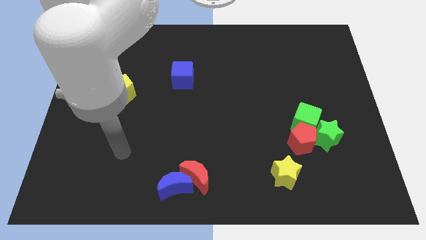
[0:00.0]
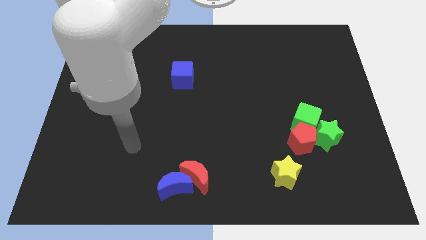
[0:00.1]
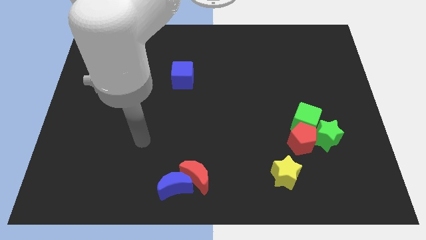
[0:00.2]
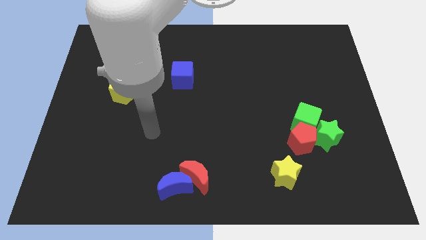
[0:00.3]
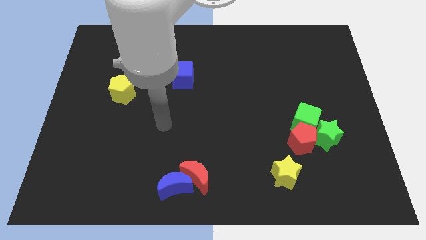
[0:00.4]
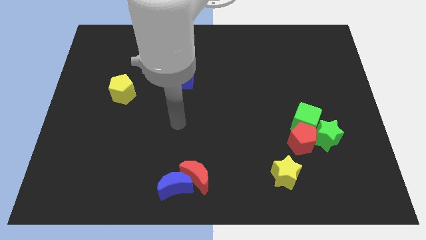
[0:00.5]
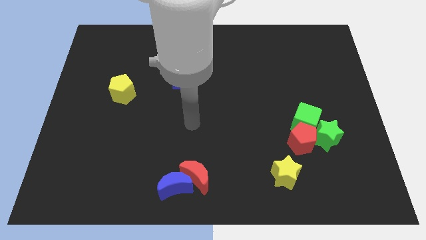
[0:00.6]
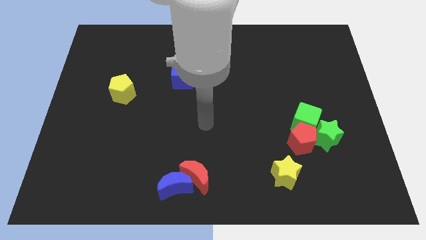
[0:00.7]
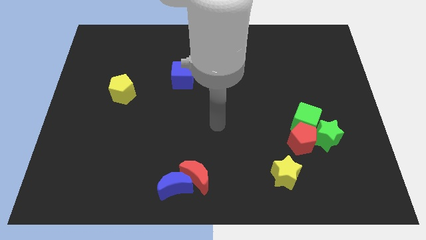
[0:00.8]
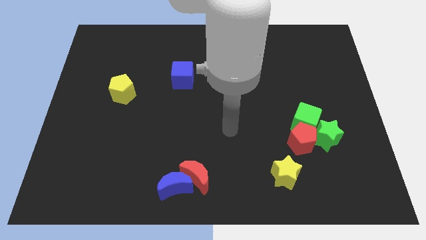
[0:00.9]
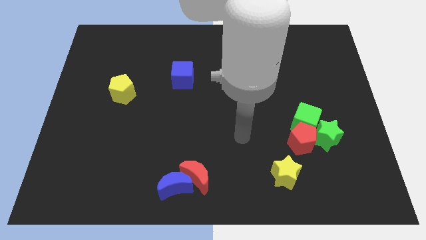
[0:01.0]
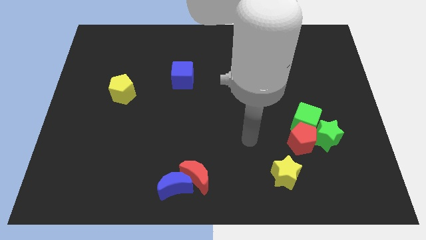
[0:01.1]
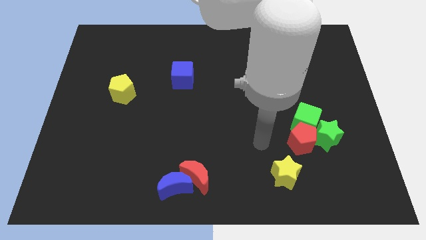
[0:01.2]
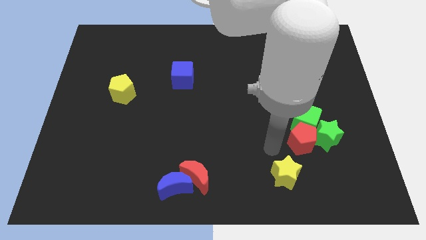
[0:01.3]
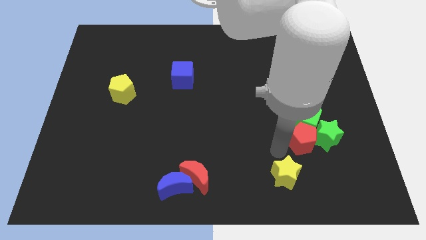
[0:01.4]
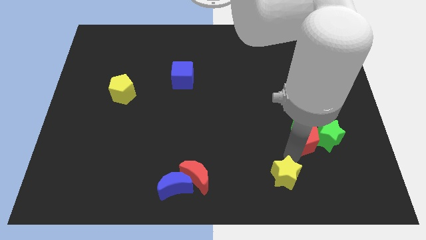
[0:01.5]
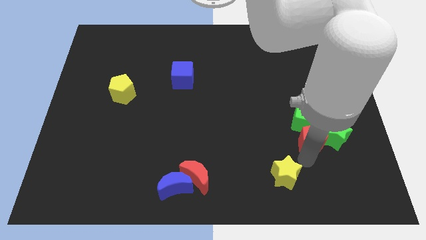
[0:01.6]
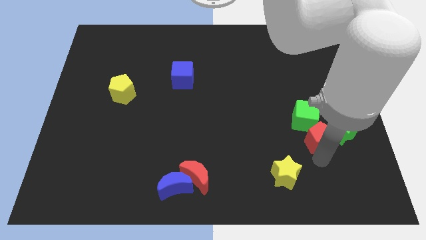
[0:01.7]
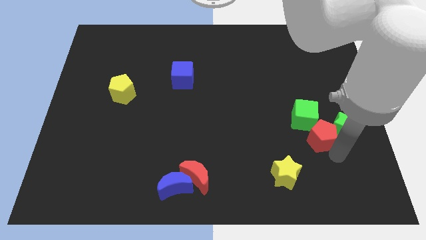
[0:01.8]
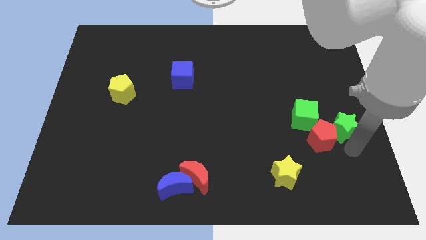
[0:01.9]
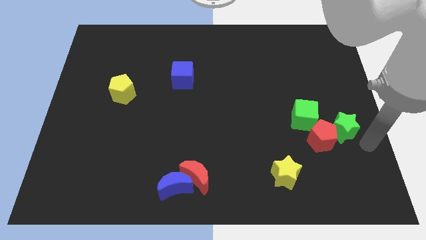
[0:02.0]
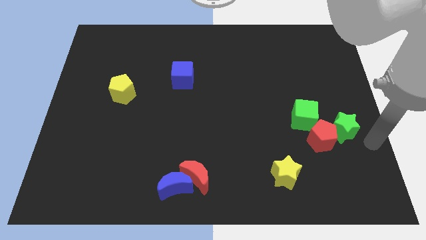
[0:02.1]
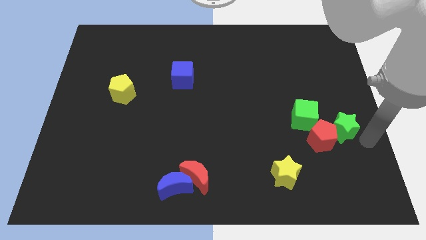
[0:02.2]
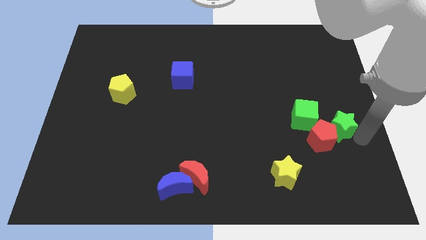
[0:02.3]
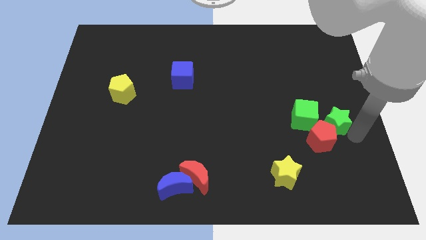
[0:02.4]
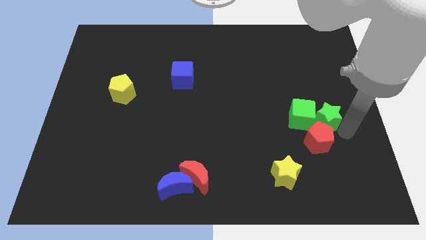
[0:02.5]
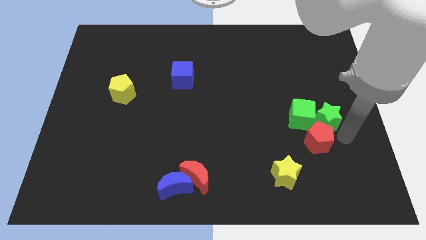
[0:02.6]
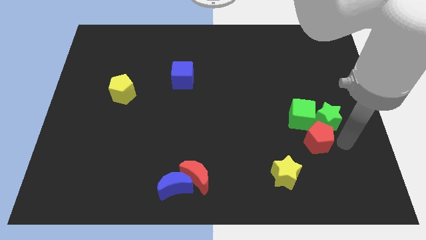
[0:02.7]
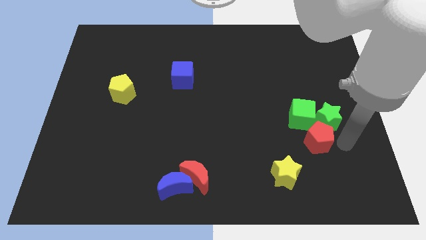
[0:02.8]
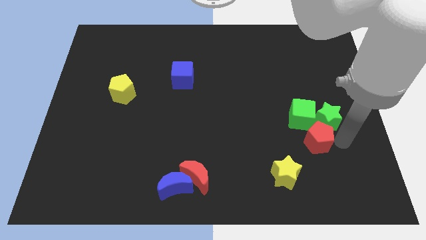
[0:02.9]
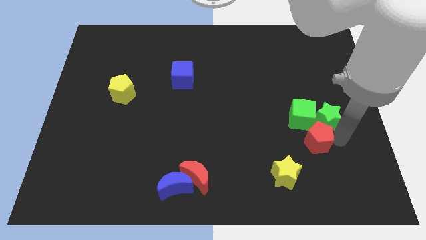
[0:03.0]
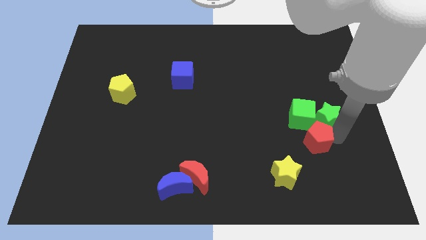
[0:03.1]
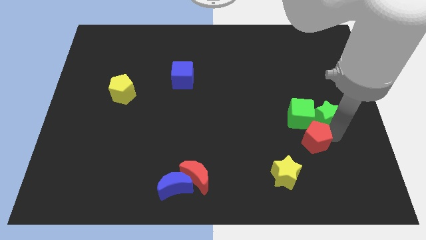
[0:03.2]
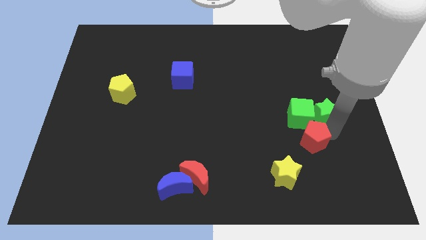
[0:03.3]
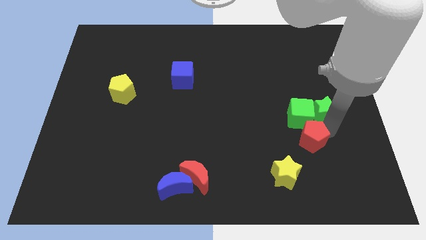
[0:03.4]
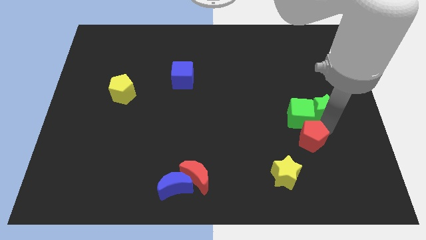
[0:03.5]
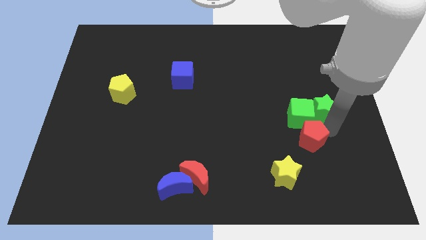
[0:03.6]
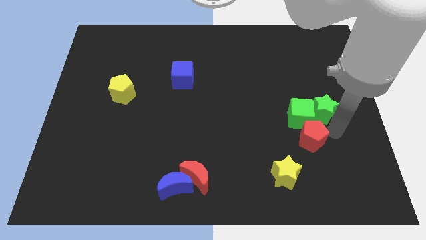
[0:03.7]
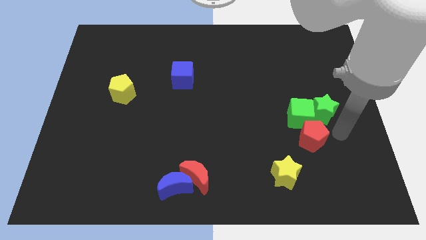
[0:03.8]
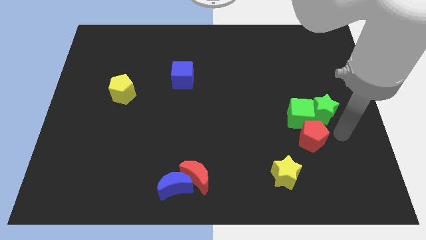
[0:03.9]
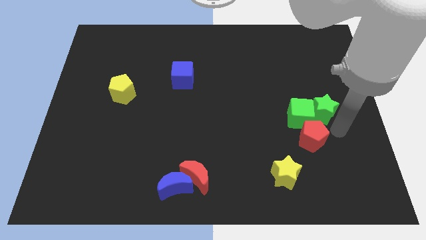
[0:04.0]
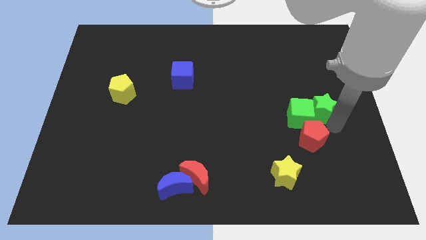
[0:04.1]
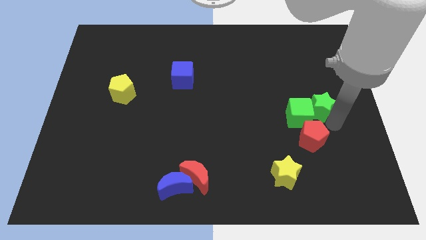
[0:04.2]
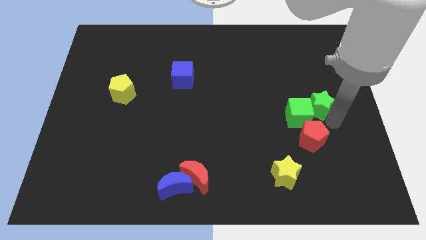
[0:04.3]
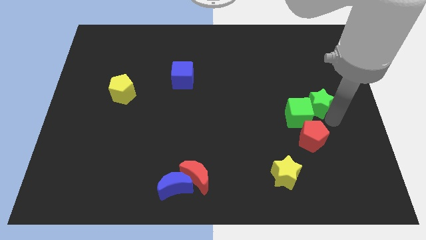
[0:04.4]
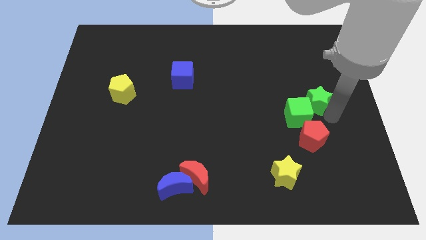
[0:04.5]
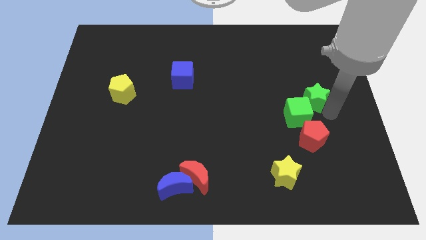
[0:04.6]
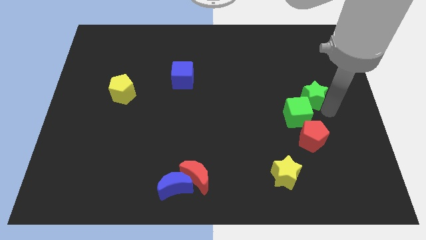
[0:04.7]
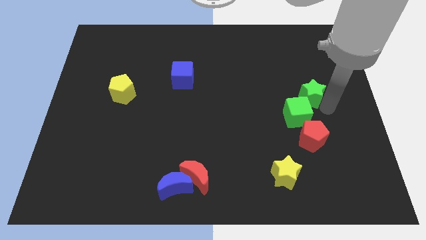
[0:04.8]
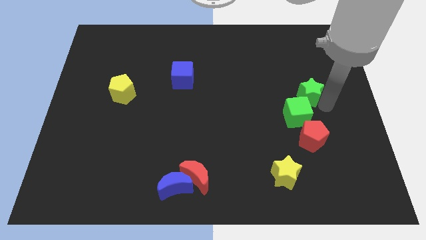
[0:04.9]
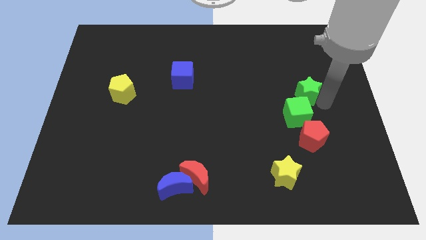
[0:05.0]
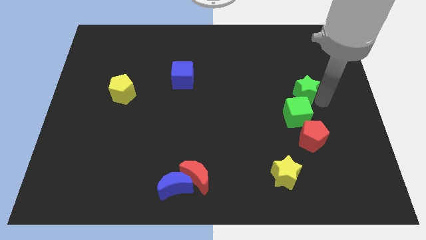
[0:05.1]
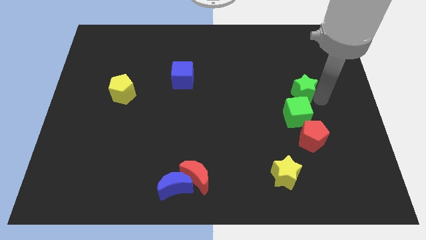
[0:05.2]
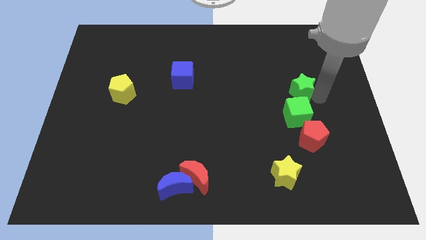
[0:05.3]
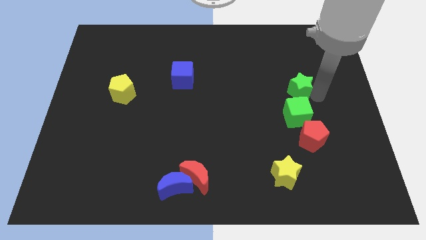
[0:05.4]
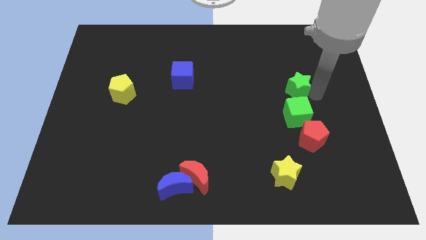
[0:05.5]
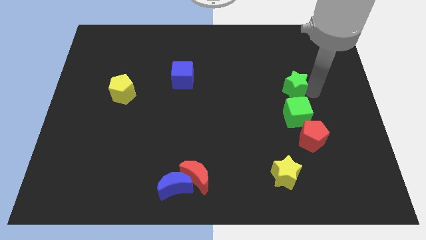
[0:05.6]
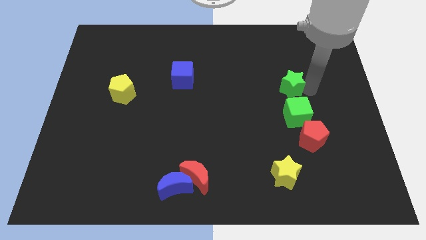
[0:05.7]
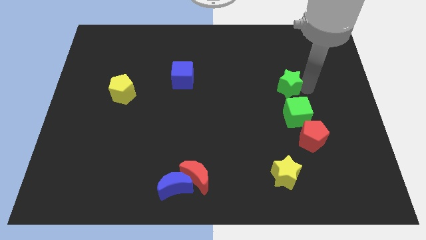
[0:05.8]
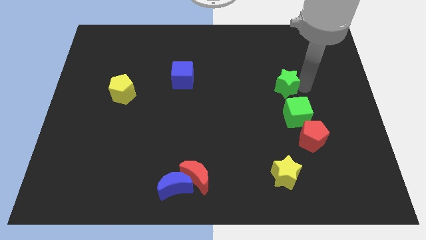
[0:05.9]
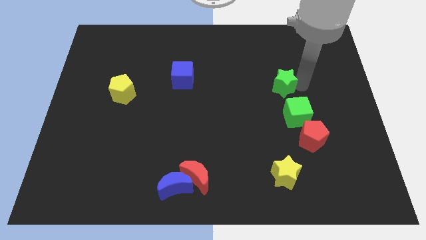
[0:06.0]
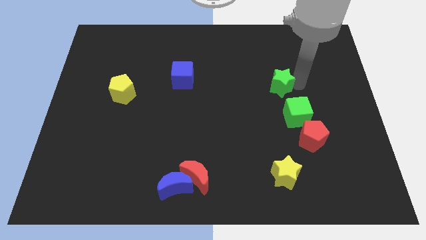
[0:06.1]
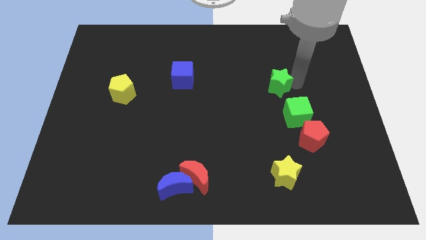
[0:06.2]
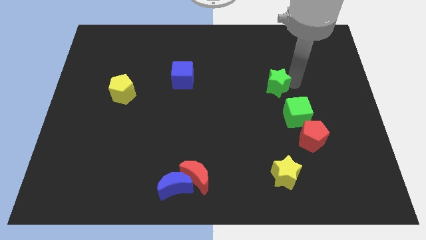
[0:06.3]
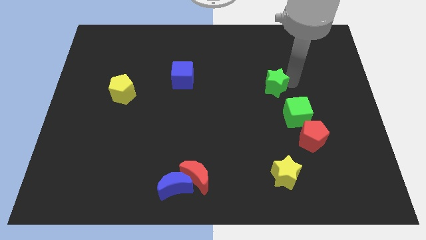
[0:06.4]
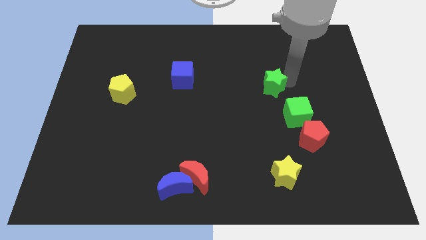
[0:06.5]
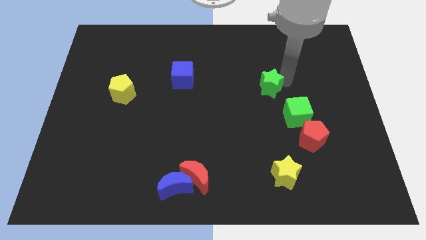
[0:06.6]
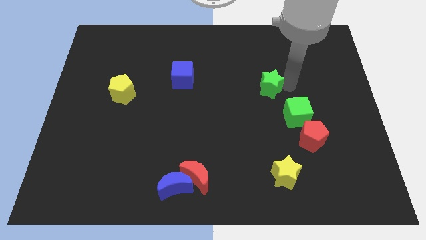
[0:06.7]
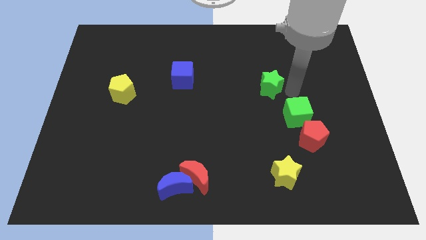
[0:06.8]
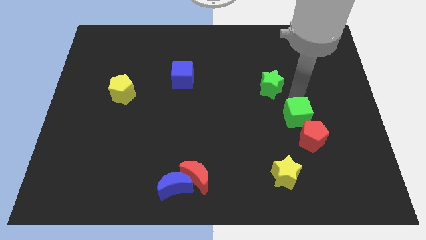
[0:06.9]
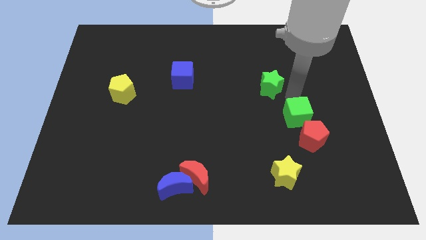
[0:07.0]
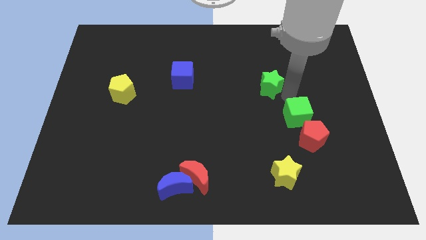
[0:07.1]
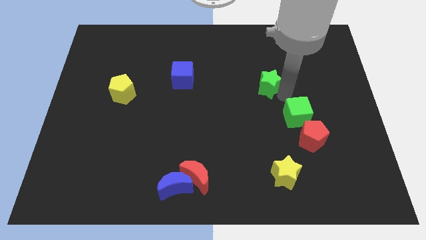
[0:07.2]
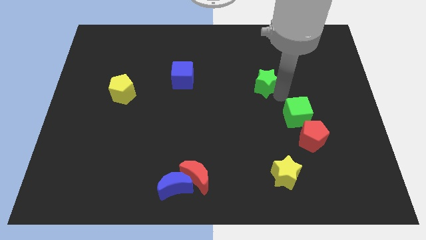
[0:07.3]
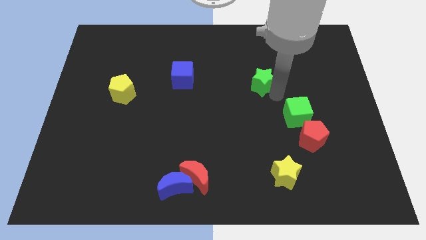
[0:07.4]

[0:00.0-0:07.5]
push the green star diagonally up and to the left

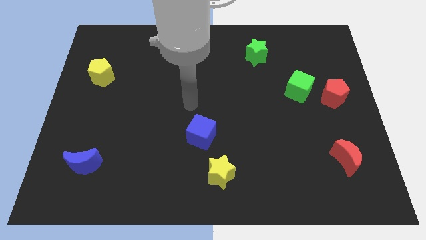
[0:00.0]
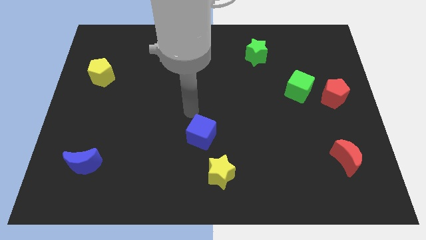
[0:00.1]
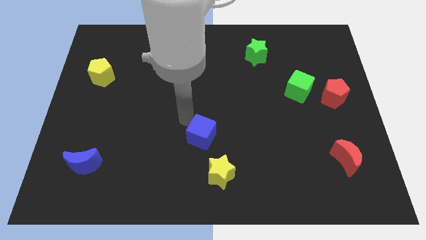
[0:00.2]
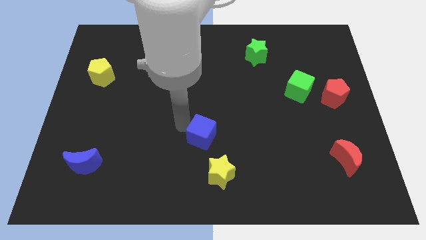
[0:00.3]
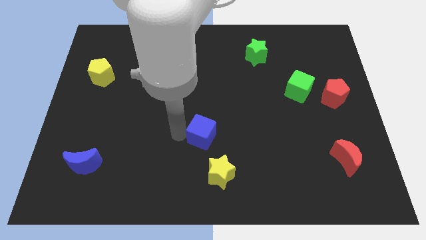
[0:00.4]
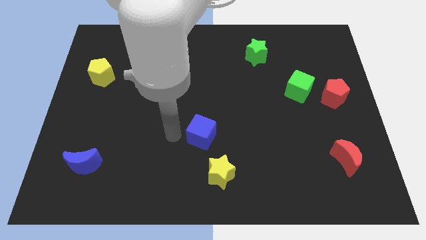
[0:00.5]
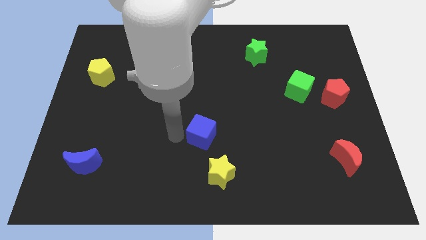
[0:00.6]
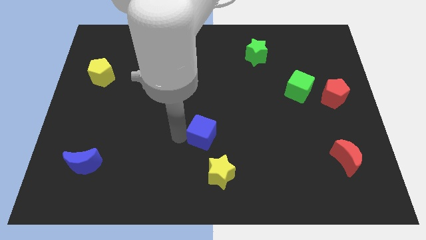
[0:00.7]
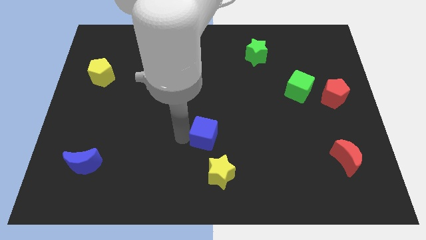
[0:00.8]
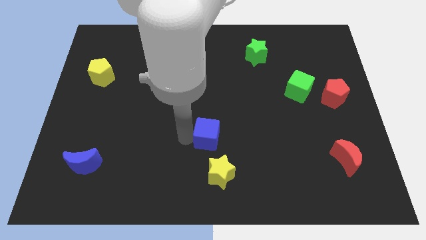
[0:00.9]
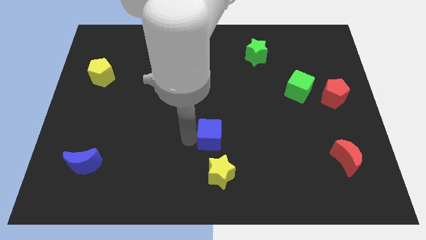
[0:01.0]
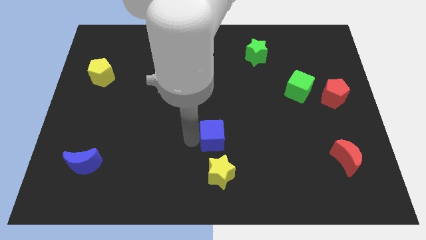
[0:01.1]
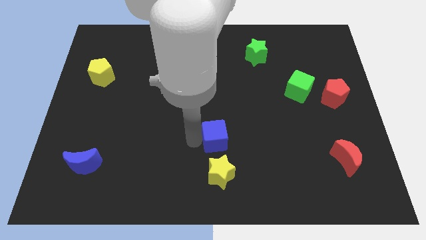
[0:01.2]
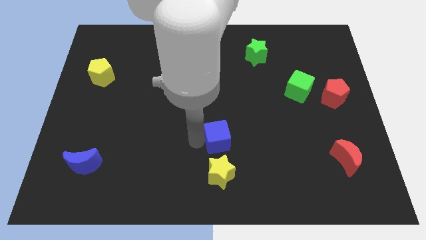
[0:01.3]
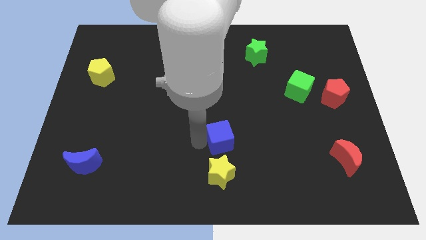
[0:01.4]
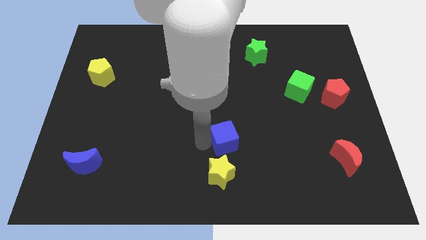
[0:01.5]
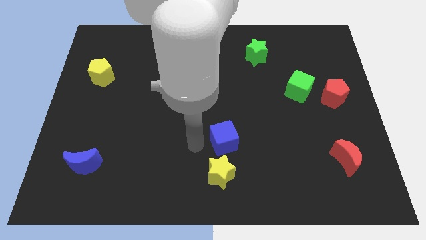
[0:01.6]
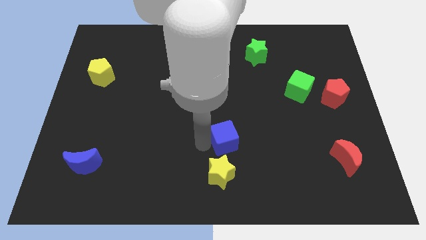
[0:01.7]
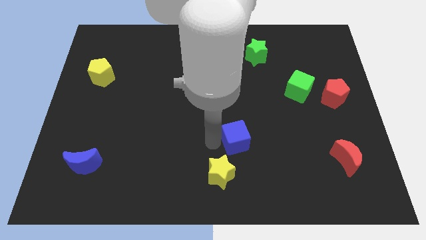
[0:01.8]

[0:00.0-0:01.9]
move the blue cube a little right
